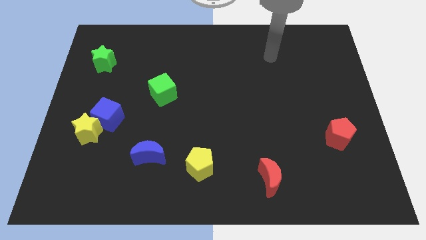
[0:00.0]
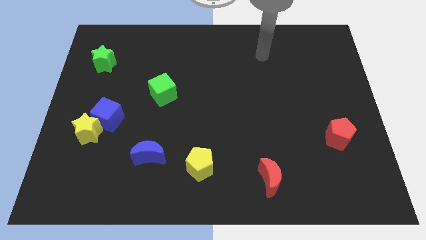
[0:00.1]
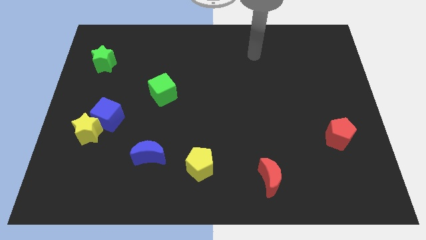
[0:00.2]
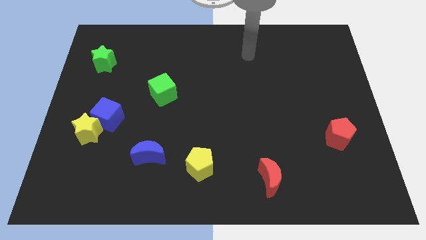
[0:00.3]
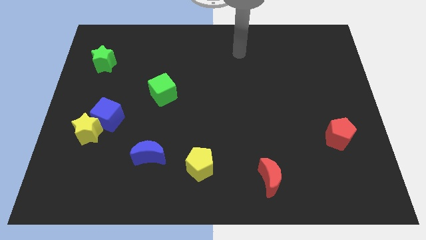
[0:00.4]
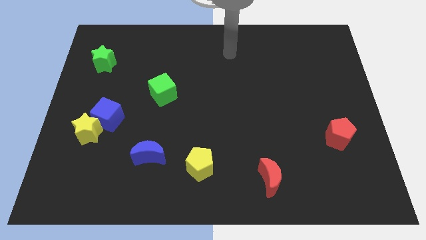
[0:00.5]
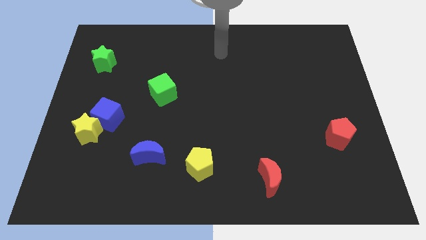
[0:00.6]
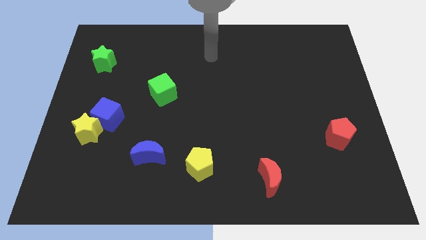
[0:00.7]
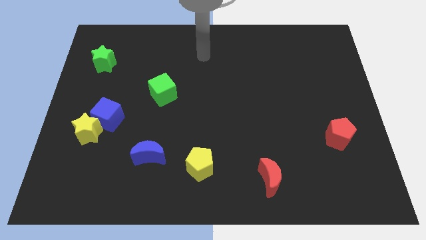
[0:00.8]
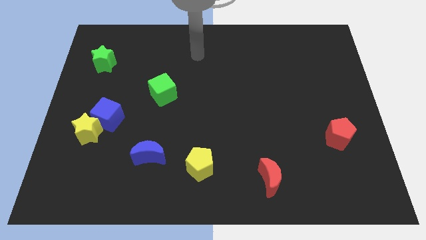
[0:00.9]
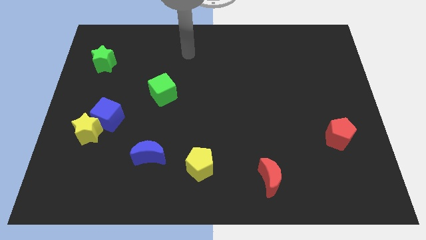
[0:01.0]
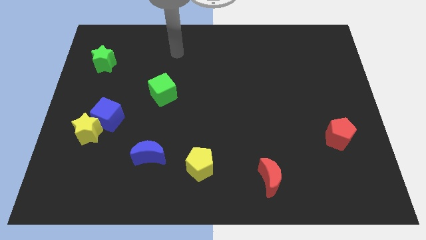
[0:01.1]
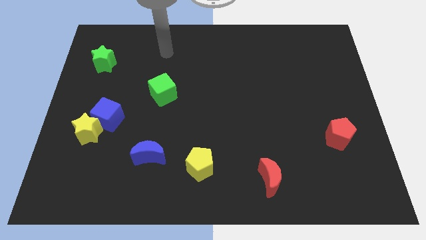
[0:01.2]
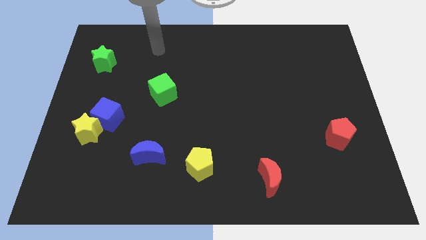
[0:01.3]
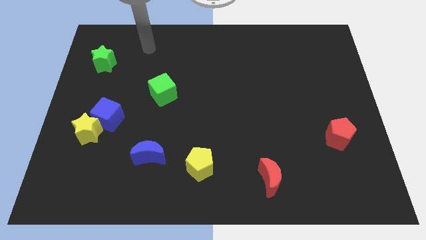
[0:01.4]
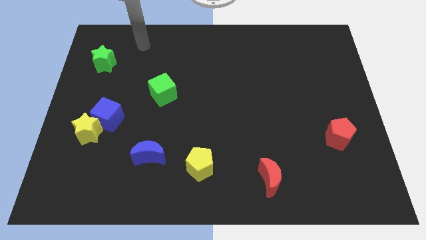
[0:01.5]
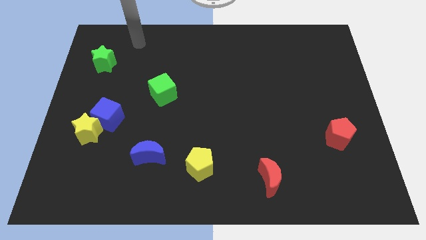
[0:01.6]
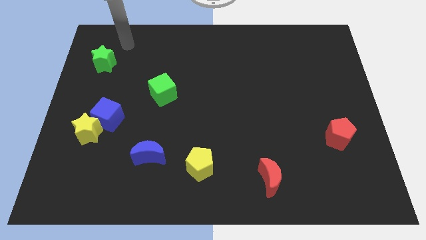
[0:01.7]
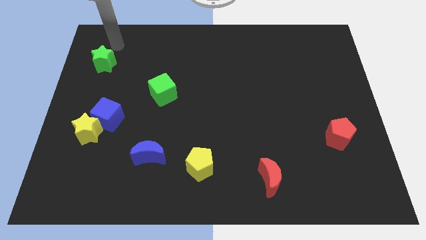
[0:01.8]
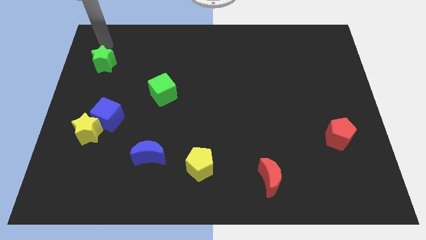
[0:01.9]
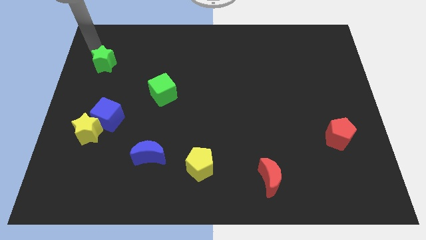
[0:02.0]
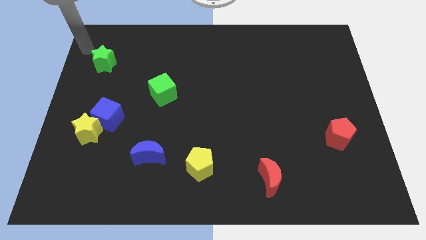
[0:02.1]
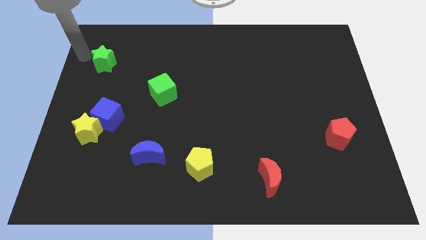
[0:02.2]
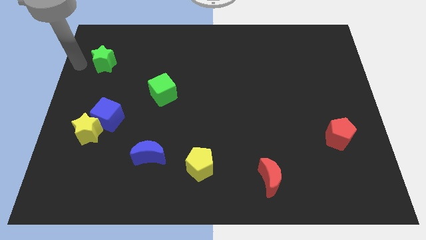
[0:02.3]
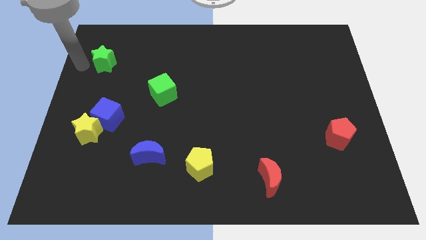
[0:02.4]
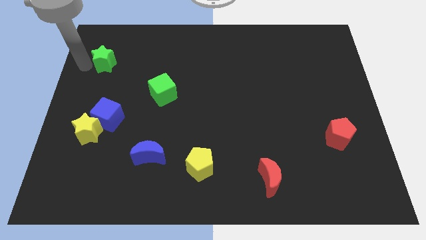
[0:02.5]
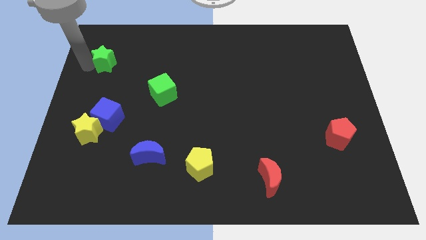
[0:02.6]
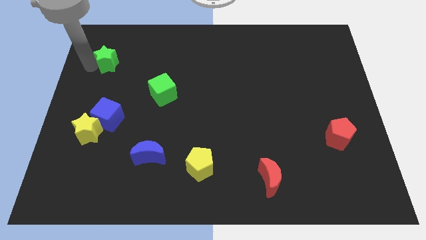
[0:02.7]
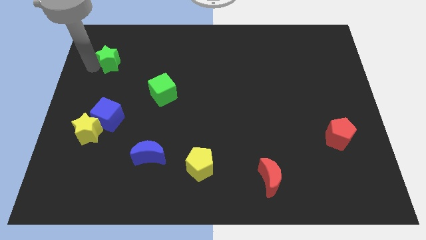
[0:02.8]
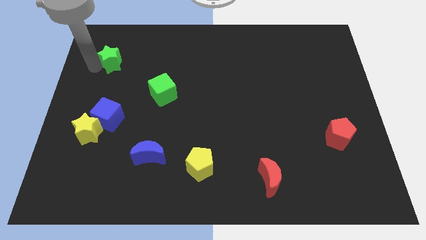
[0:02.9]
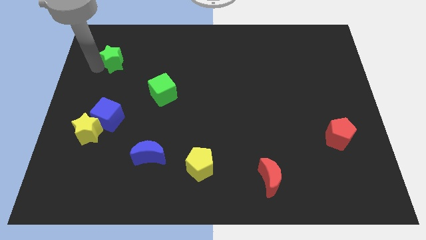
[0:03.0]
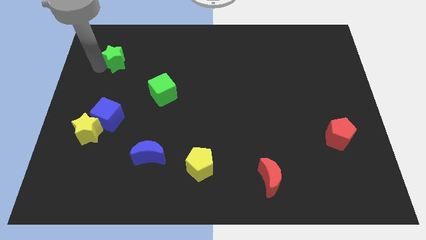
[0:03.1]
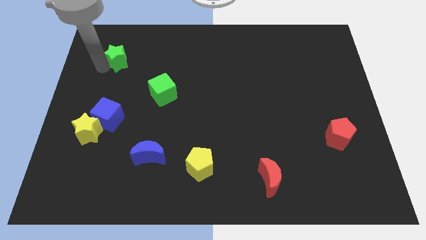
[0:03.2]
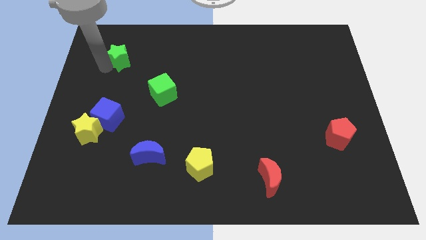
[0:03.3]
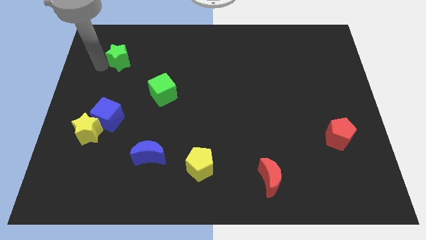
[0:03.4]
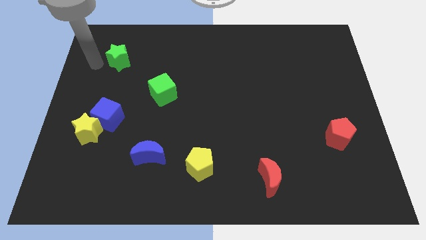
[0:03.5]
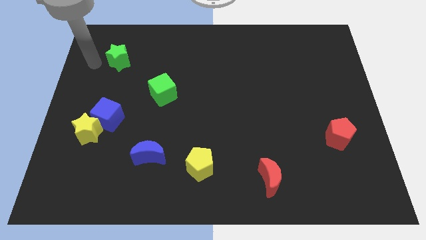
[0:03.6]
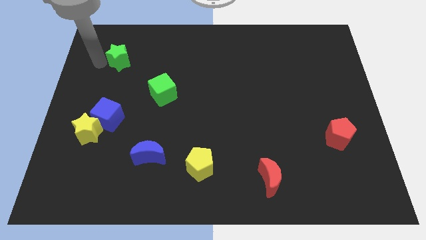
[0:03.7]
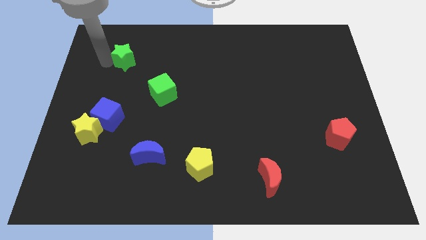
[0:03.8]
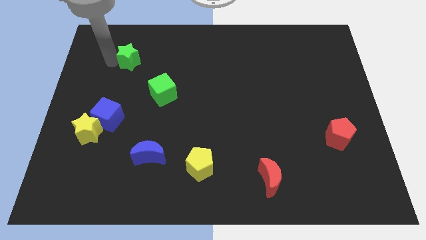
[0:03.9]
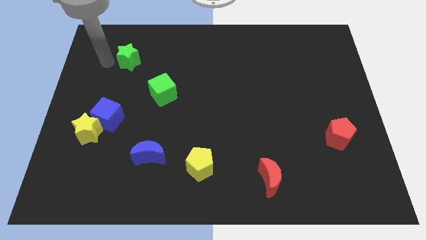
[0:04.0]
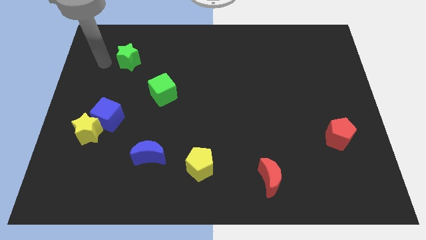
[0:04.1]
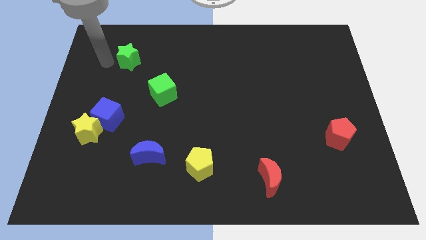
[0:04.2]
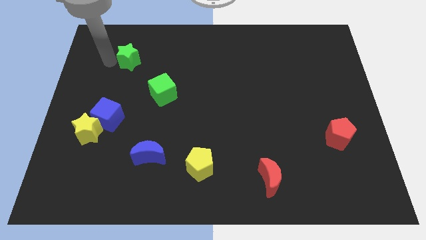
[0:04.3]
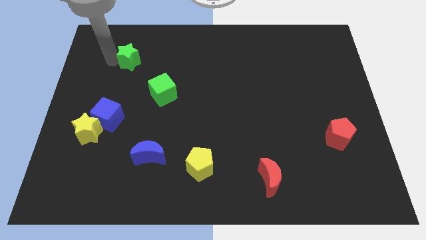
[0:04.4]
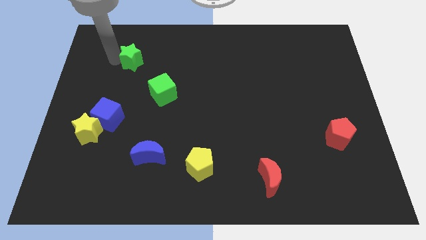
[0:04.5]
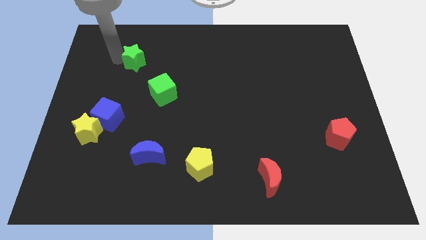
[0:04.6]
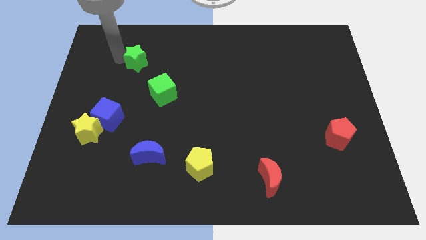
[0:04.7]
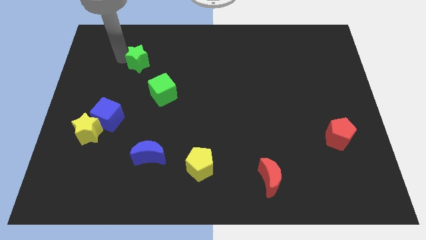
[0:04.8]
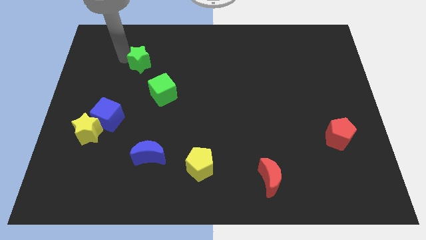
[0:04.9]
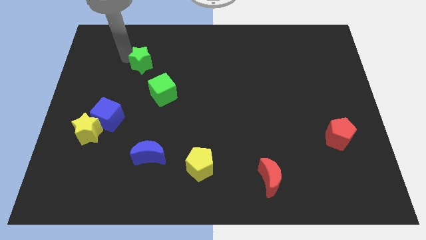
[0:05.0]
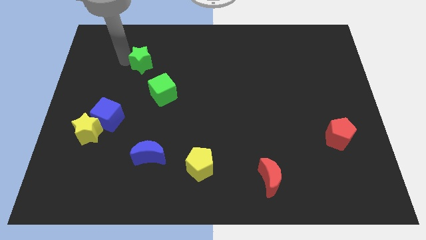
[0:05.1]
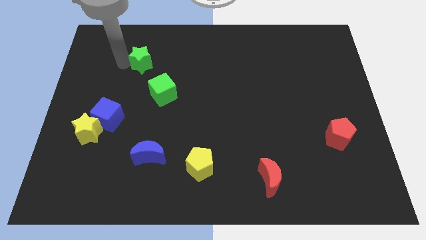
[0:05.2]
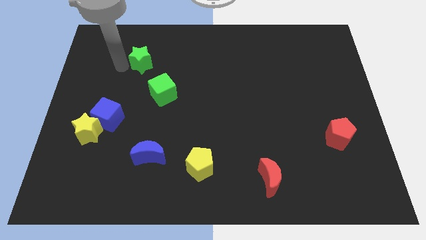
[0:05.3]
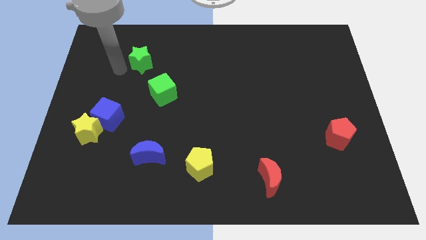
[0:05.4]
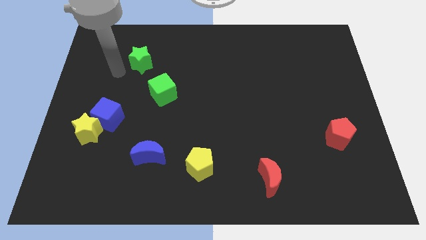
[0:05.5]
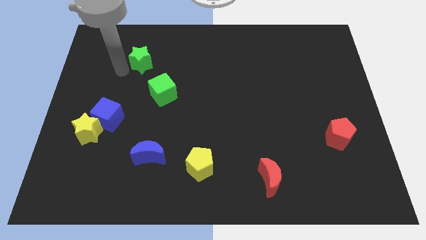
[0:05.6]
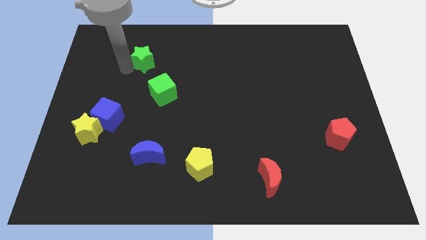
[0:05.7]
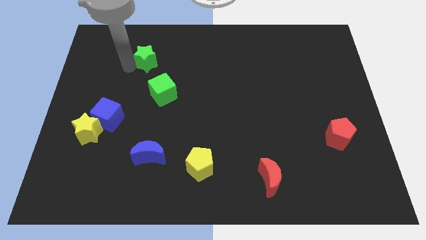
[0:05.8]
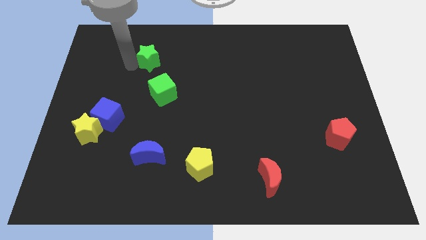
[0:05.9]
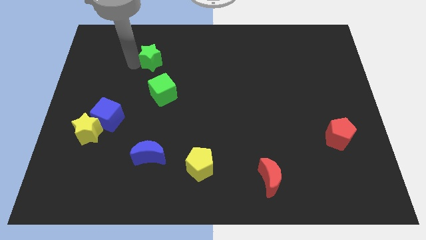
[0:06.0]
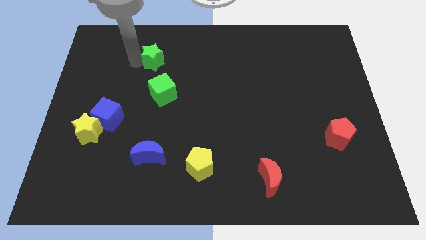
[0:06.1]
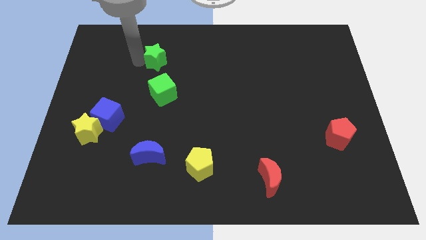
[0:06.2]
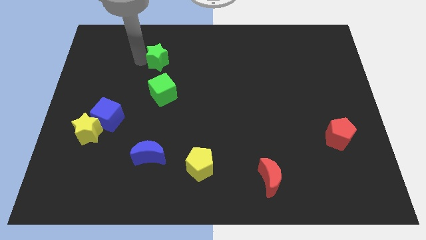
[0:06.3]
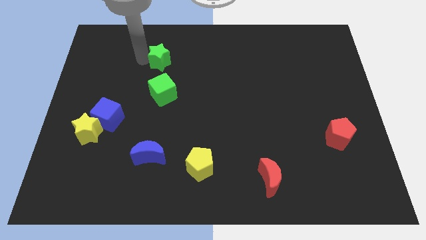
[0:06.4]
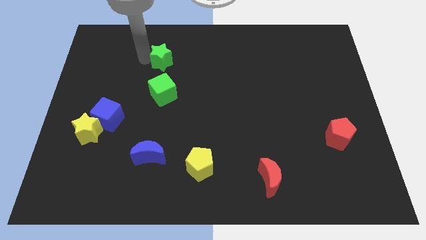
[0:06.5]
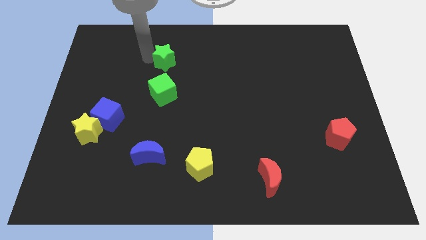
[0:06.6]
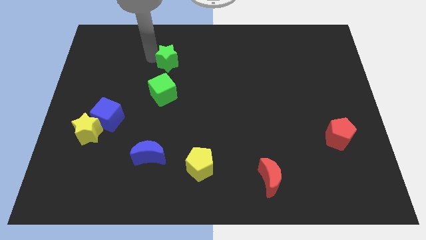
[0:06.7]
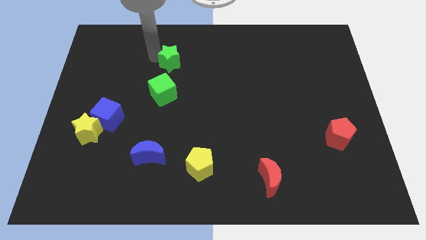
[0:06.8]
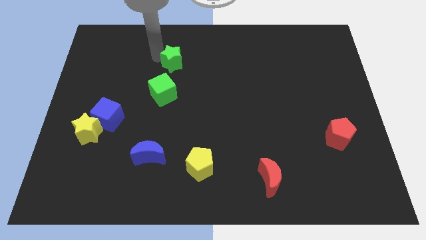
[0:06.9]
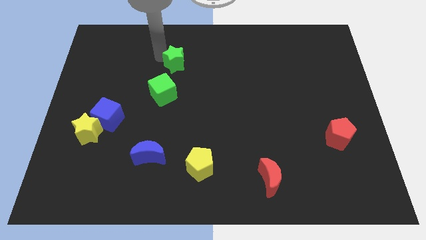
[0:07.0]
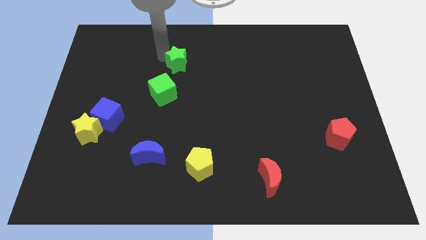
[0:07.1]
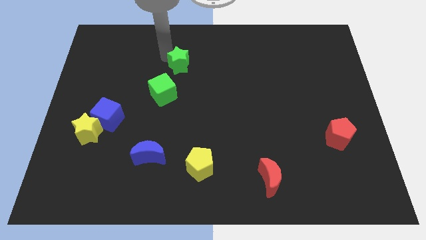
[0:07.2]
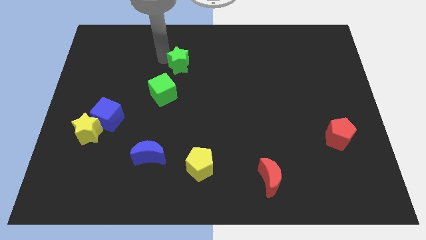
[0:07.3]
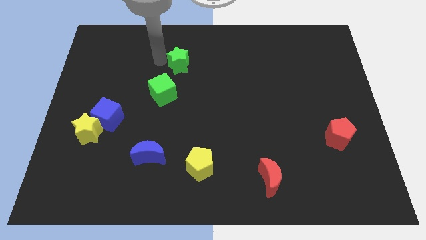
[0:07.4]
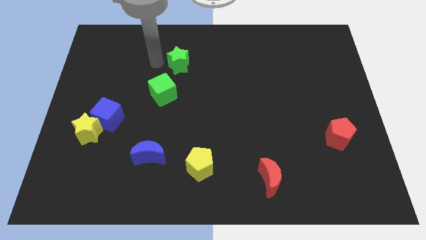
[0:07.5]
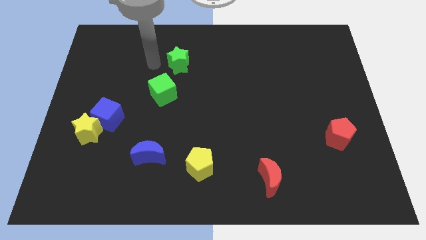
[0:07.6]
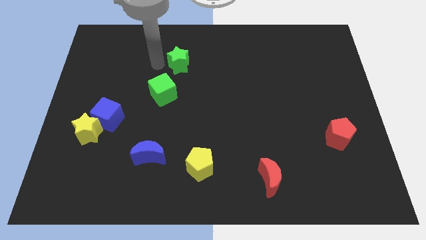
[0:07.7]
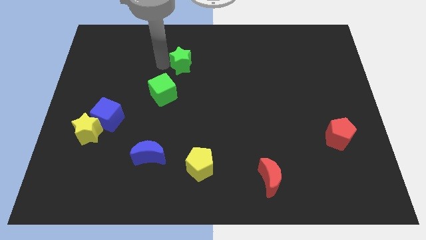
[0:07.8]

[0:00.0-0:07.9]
push the green star to the right
